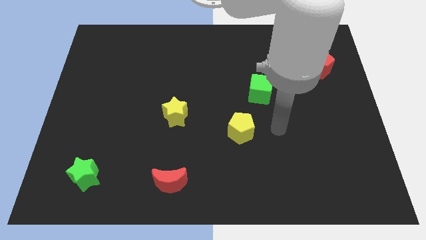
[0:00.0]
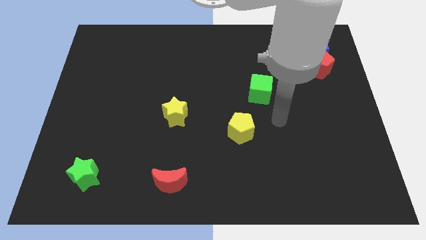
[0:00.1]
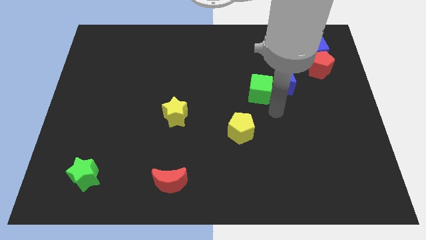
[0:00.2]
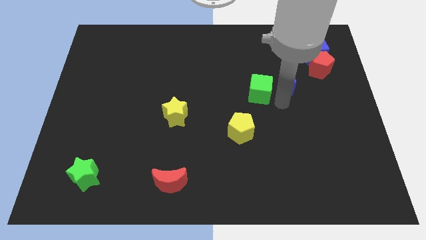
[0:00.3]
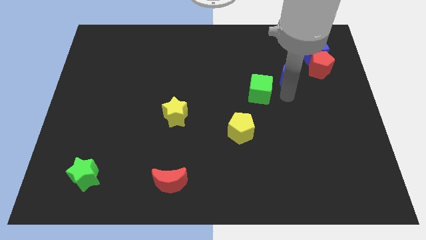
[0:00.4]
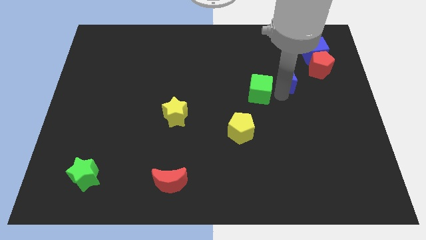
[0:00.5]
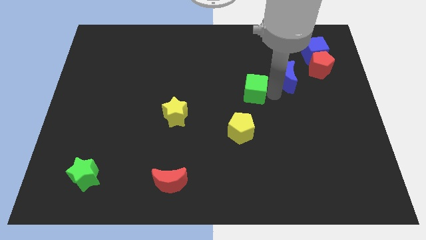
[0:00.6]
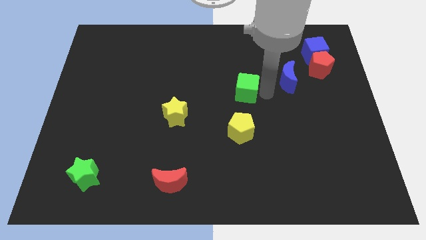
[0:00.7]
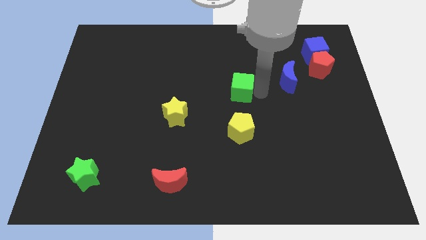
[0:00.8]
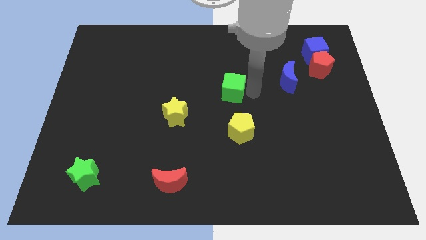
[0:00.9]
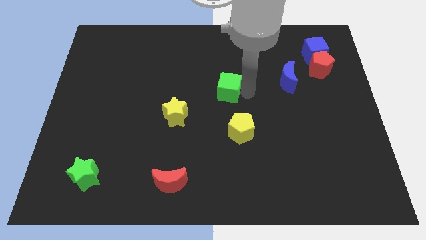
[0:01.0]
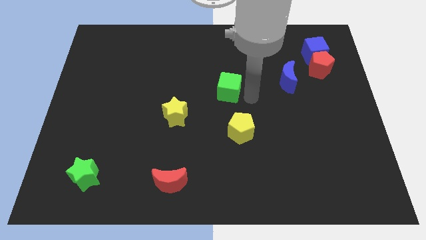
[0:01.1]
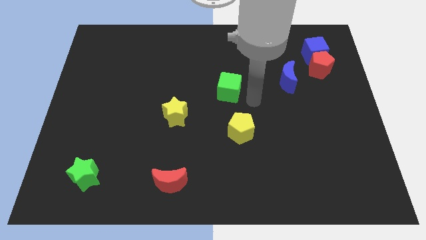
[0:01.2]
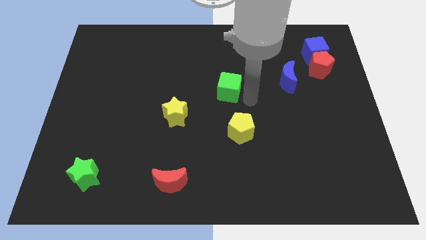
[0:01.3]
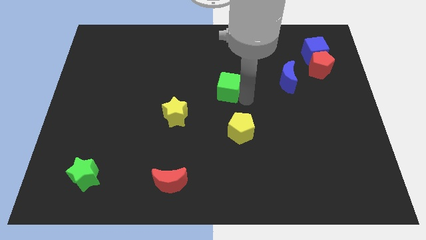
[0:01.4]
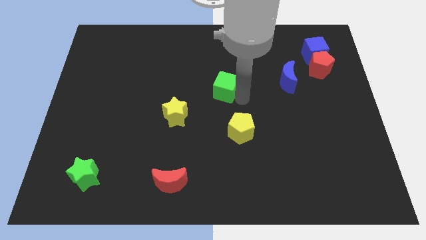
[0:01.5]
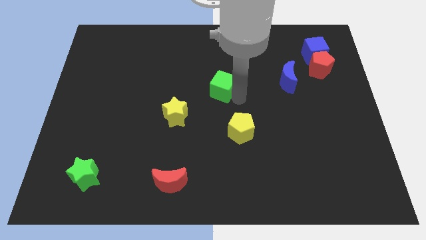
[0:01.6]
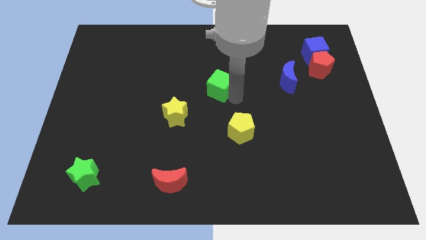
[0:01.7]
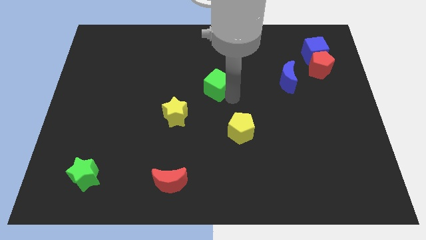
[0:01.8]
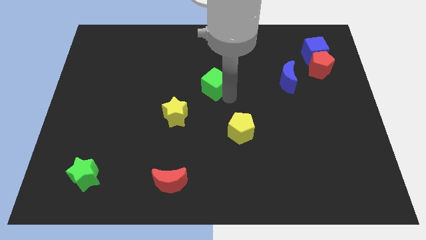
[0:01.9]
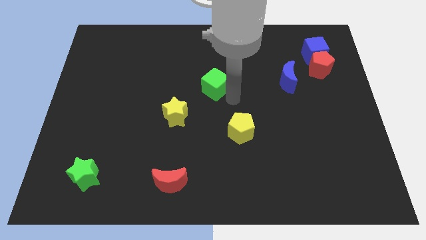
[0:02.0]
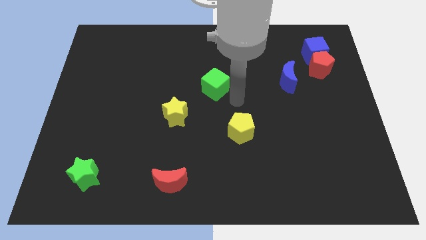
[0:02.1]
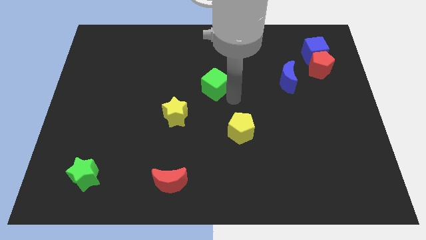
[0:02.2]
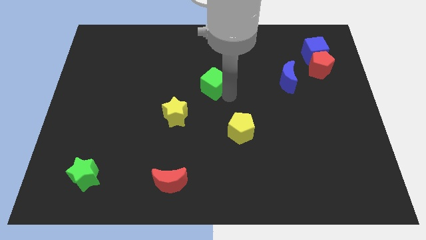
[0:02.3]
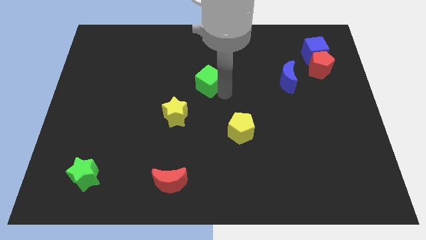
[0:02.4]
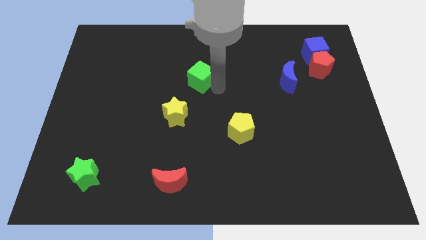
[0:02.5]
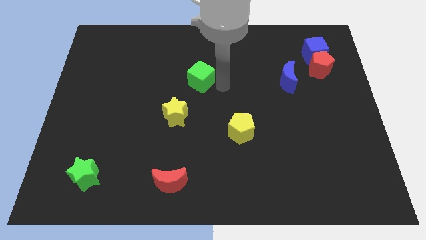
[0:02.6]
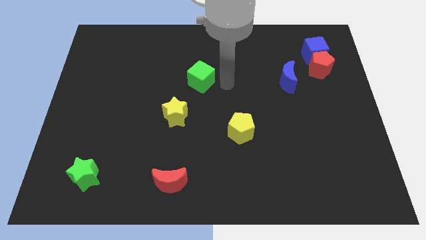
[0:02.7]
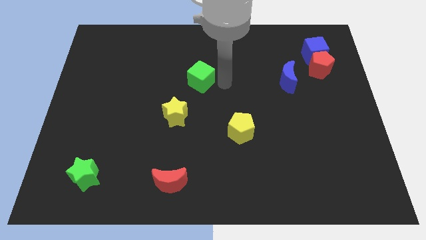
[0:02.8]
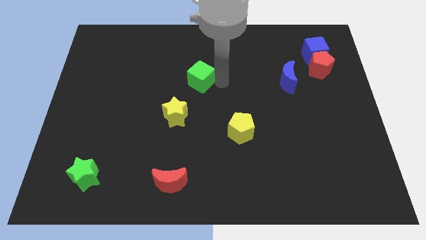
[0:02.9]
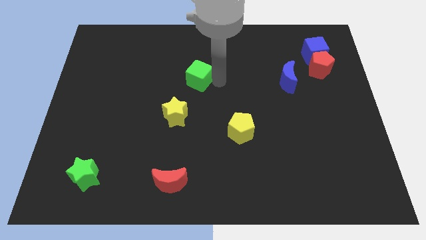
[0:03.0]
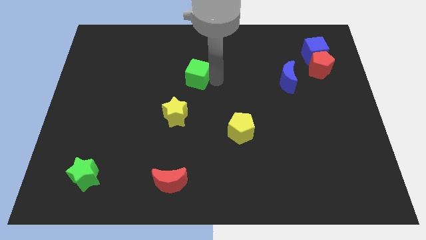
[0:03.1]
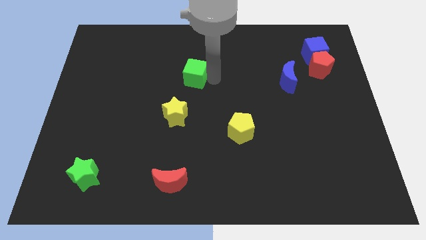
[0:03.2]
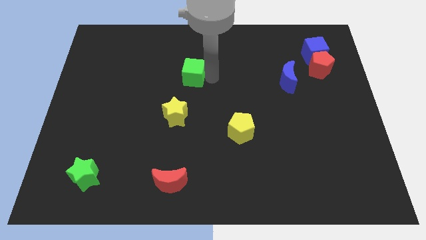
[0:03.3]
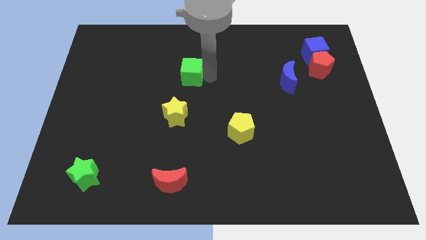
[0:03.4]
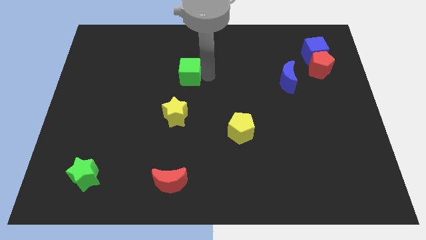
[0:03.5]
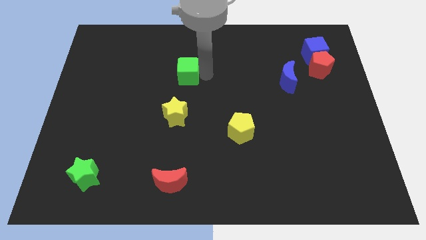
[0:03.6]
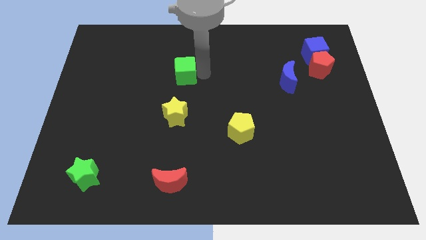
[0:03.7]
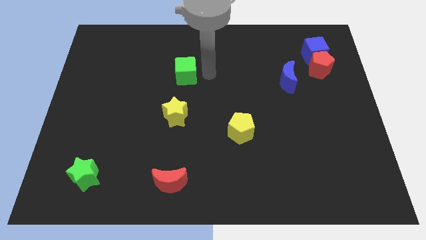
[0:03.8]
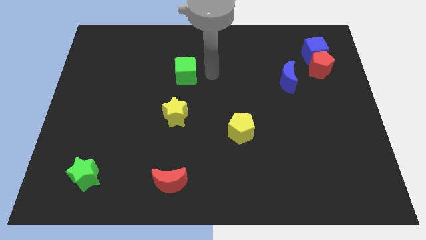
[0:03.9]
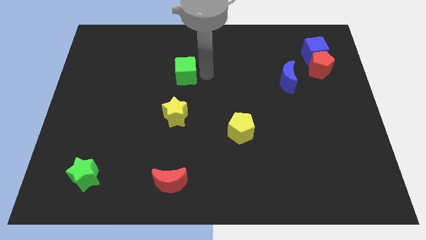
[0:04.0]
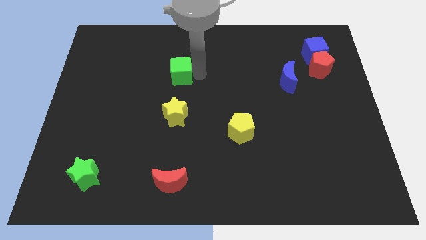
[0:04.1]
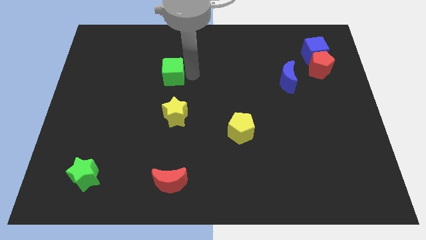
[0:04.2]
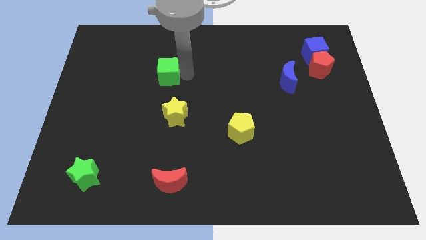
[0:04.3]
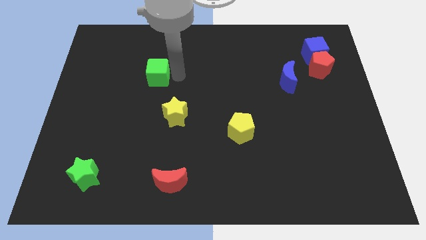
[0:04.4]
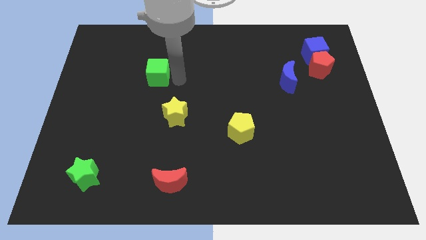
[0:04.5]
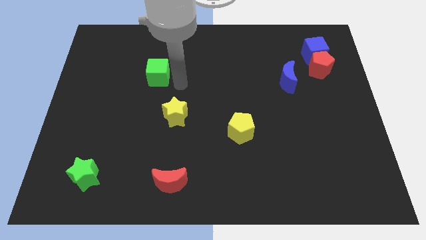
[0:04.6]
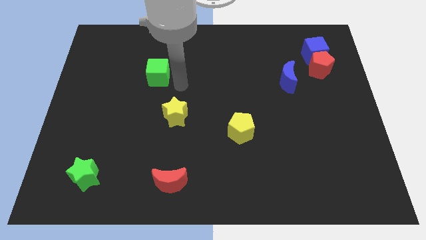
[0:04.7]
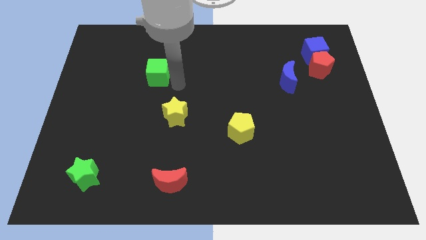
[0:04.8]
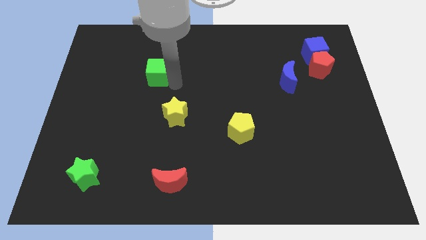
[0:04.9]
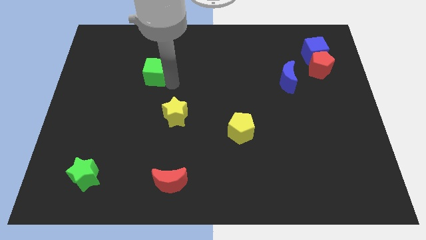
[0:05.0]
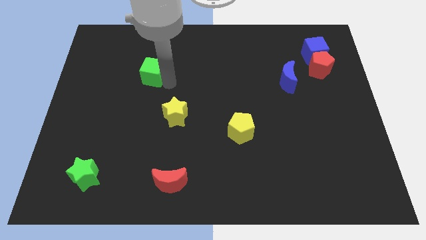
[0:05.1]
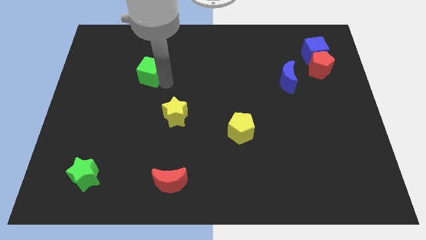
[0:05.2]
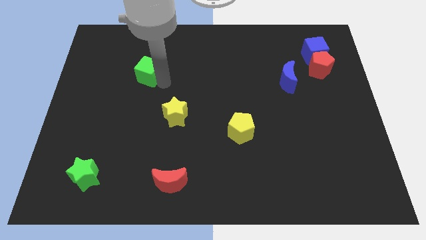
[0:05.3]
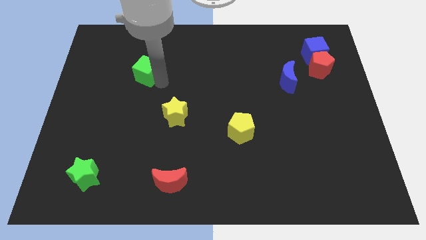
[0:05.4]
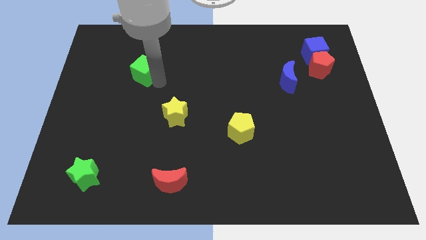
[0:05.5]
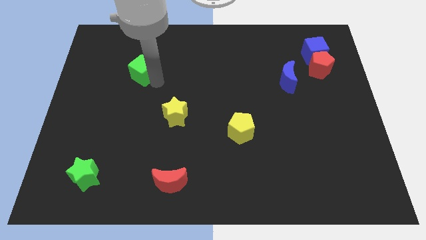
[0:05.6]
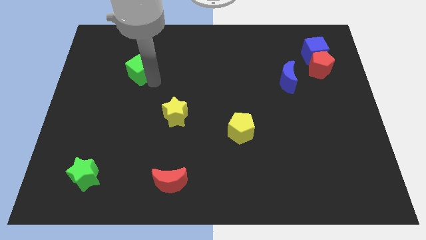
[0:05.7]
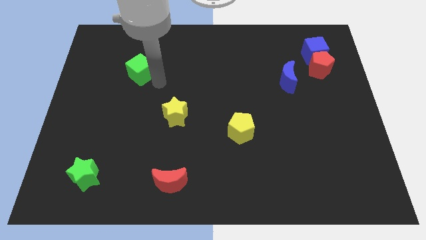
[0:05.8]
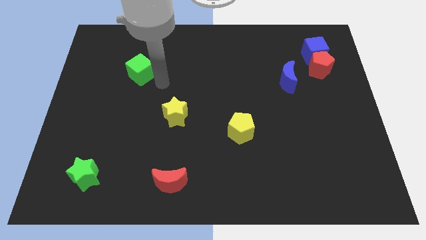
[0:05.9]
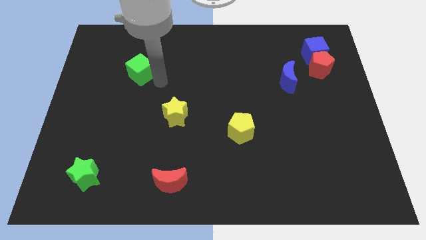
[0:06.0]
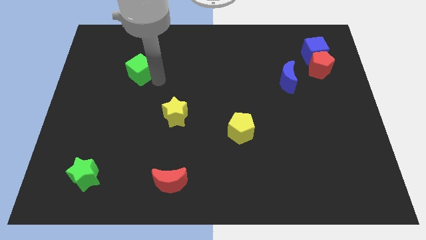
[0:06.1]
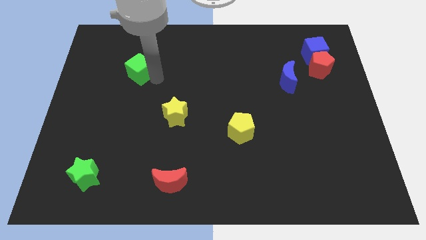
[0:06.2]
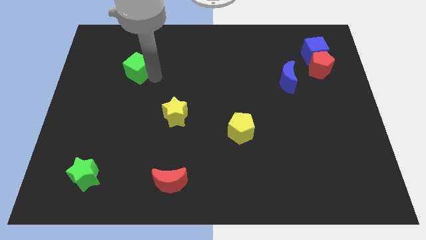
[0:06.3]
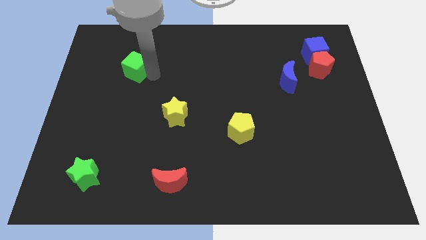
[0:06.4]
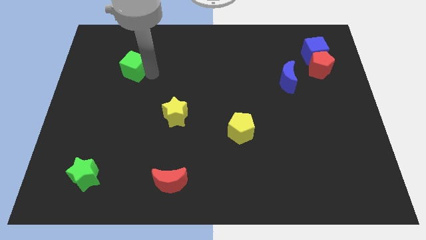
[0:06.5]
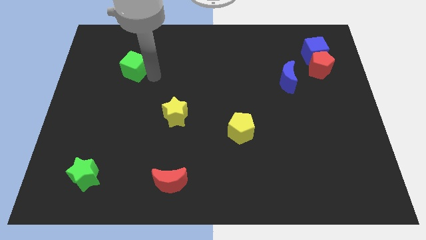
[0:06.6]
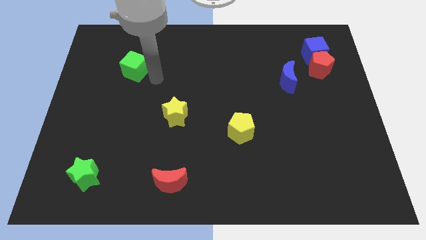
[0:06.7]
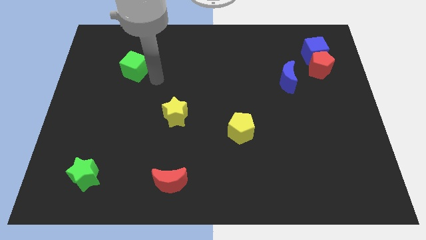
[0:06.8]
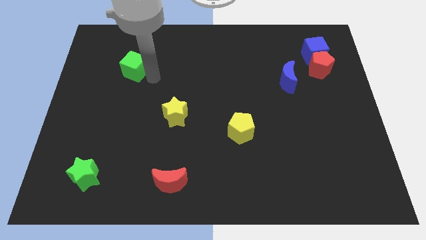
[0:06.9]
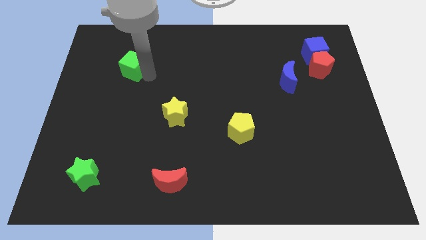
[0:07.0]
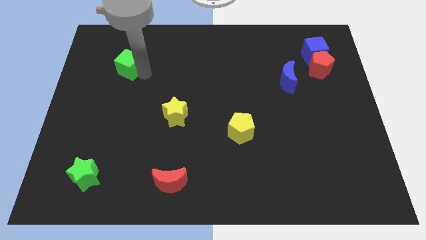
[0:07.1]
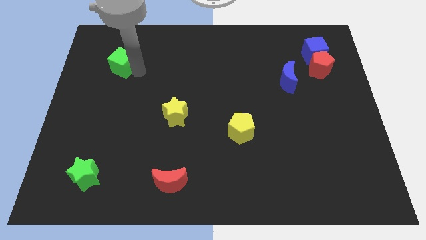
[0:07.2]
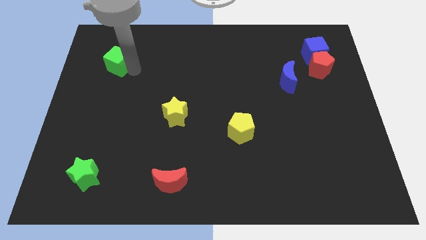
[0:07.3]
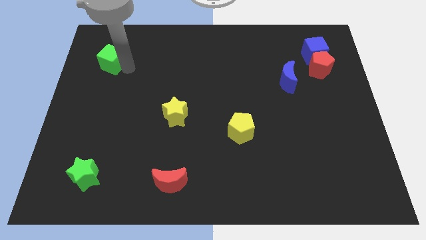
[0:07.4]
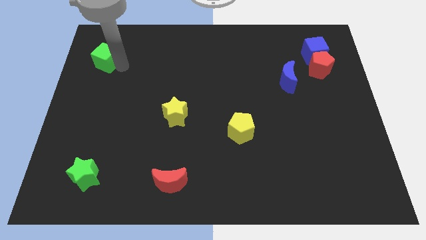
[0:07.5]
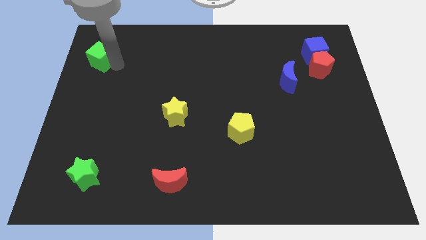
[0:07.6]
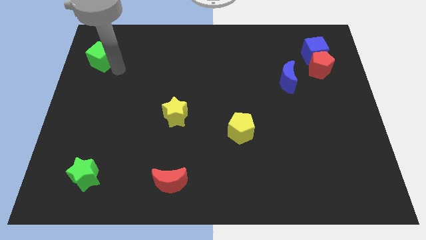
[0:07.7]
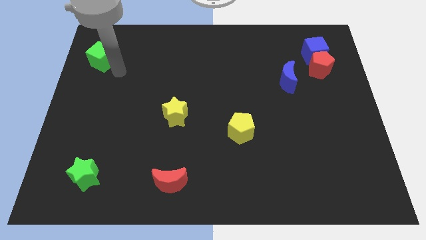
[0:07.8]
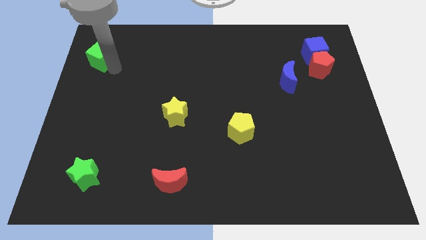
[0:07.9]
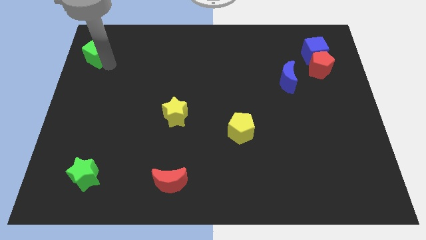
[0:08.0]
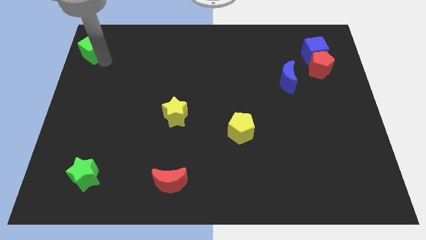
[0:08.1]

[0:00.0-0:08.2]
move the green cube to the top left of the board
